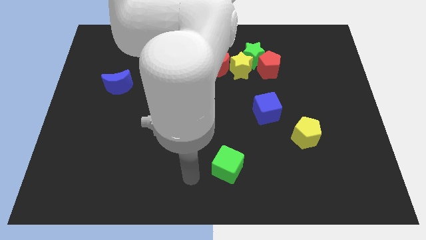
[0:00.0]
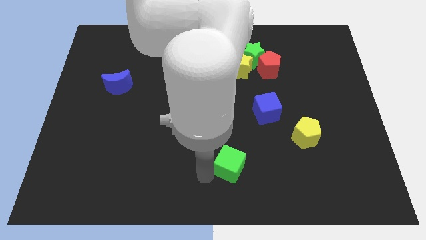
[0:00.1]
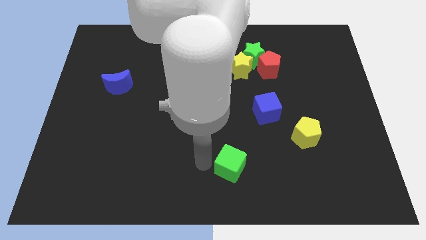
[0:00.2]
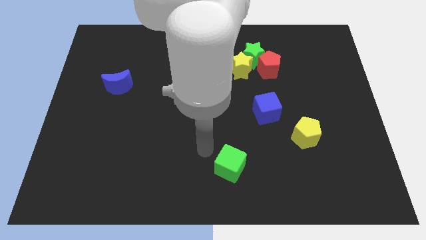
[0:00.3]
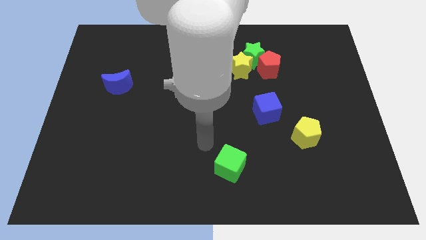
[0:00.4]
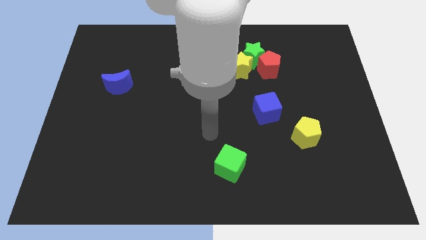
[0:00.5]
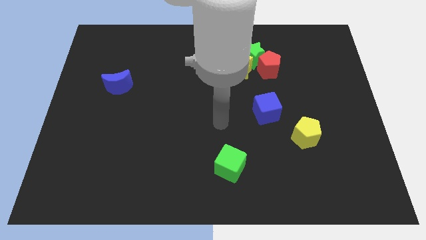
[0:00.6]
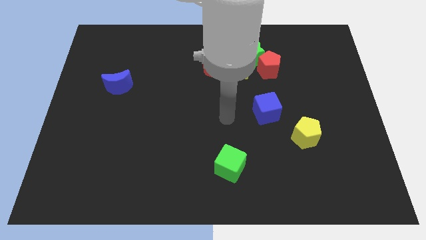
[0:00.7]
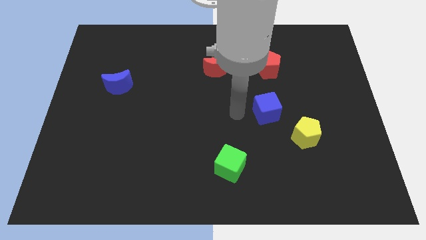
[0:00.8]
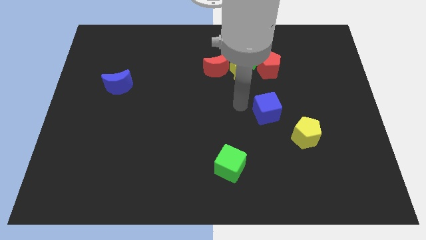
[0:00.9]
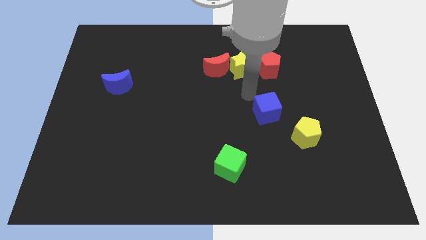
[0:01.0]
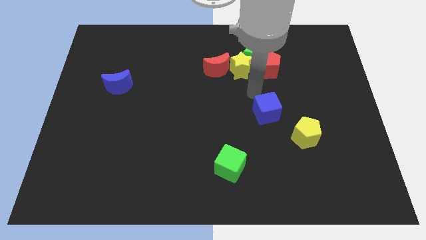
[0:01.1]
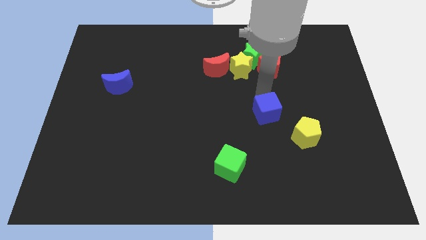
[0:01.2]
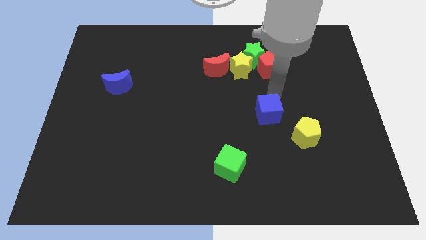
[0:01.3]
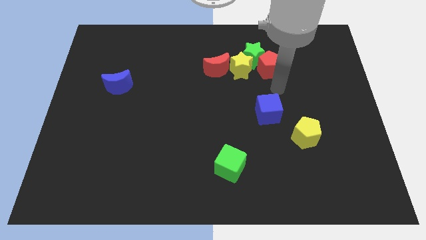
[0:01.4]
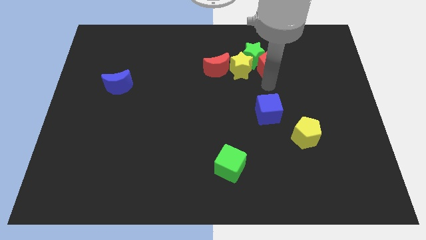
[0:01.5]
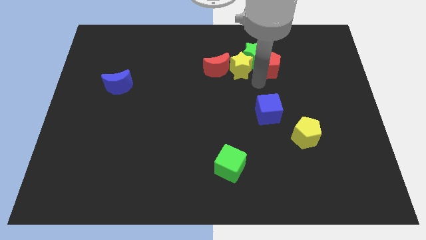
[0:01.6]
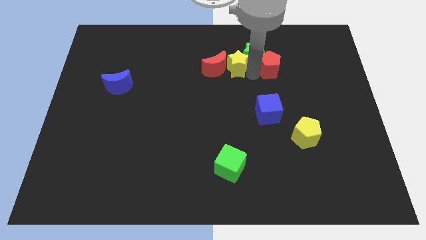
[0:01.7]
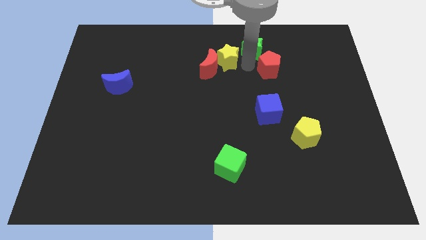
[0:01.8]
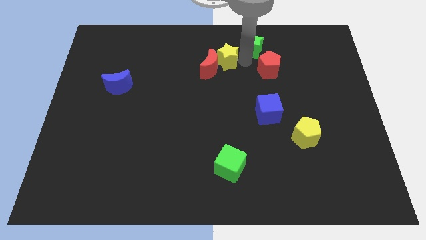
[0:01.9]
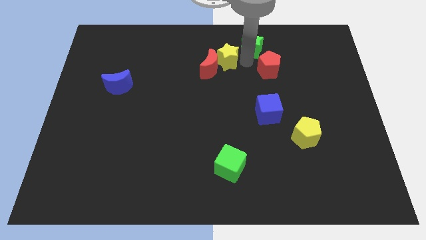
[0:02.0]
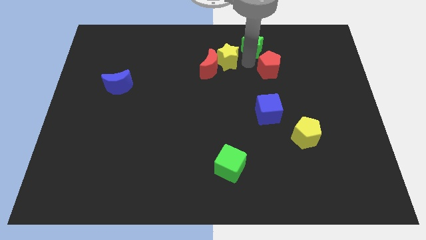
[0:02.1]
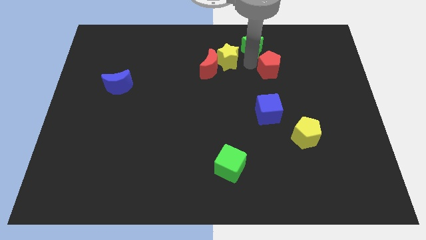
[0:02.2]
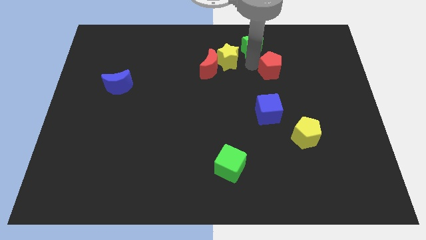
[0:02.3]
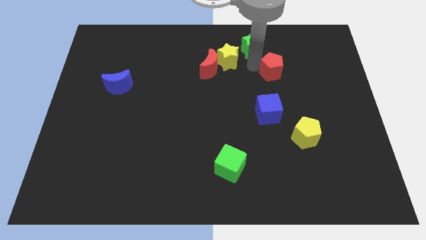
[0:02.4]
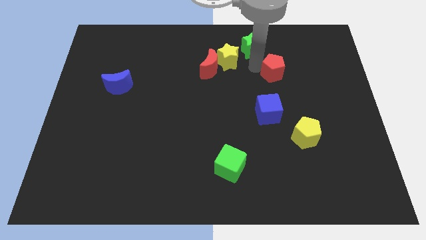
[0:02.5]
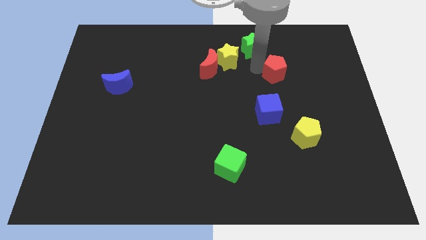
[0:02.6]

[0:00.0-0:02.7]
separate the red pentagon from the green star and yellow star

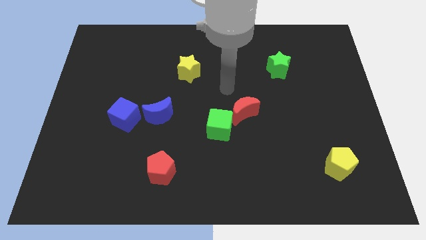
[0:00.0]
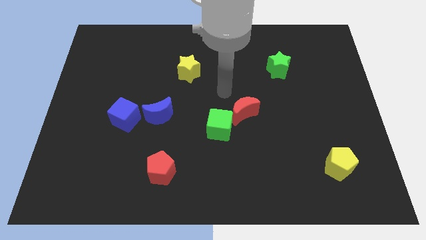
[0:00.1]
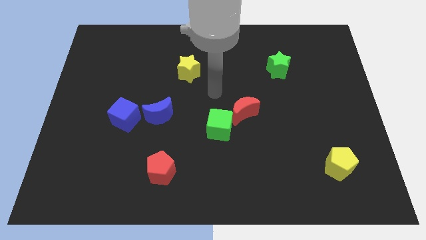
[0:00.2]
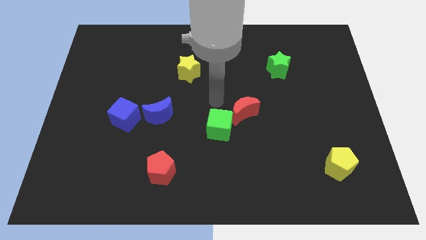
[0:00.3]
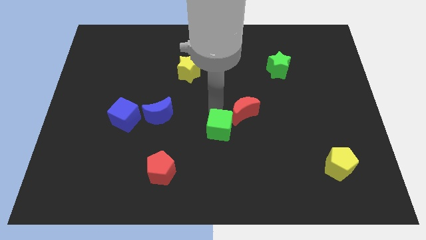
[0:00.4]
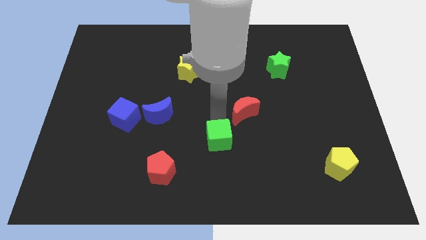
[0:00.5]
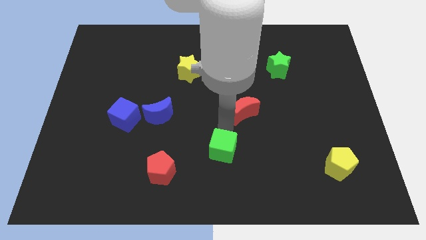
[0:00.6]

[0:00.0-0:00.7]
pull the red moon apart from the green cube

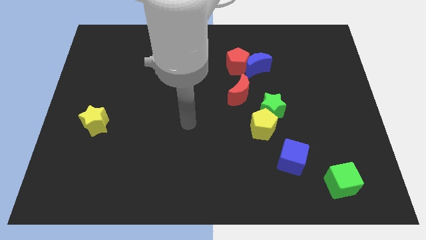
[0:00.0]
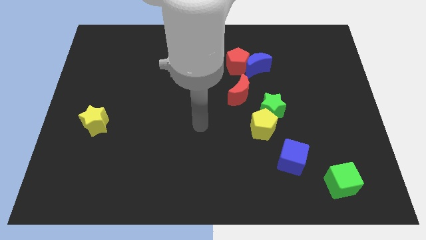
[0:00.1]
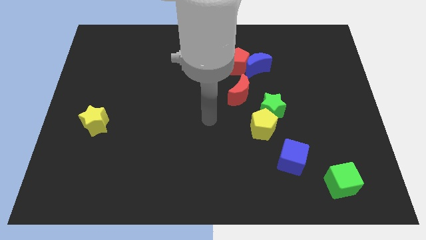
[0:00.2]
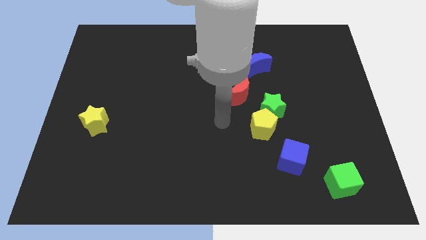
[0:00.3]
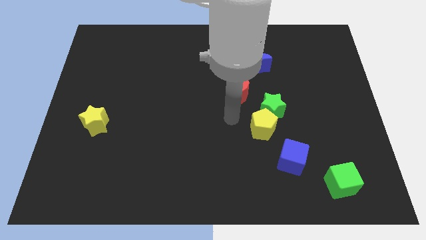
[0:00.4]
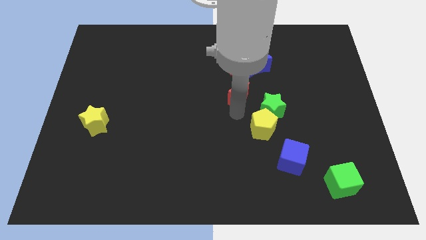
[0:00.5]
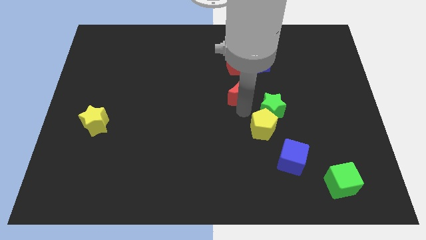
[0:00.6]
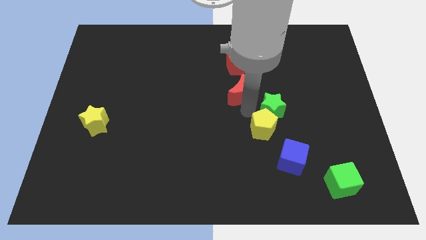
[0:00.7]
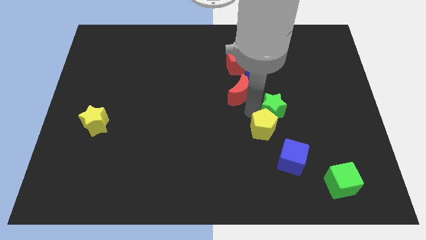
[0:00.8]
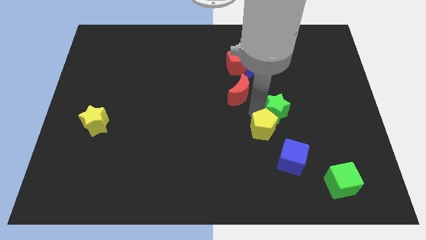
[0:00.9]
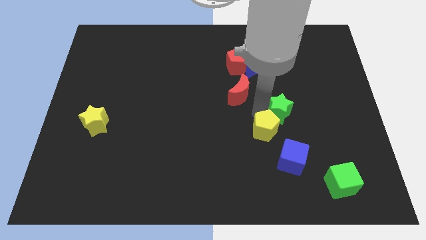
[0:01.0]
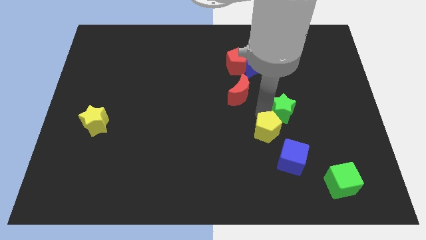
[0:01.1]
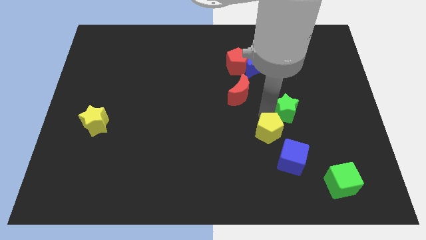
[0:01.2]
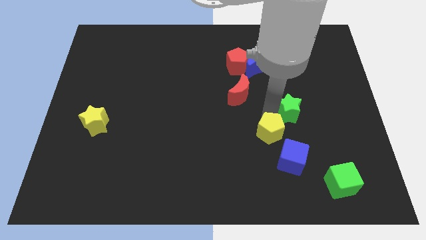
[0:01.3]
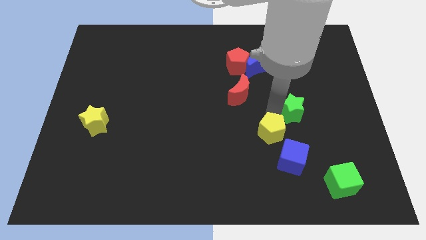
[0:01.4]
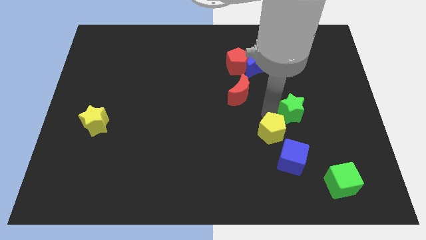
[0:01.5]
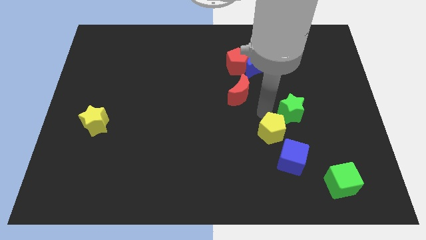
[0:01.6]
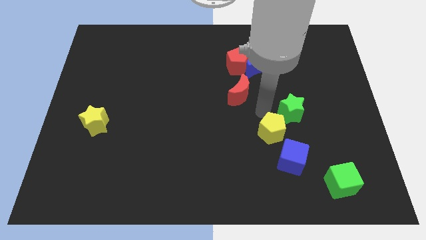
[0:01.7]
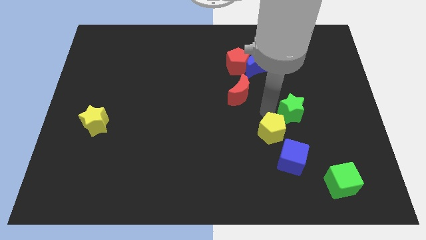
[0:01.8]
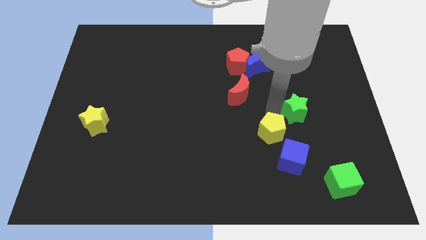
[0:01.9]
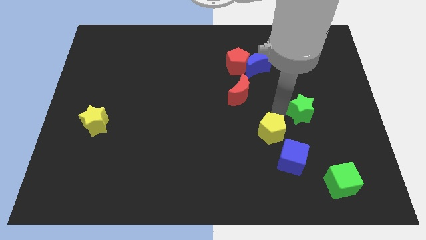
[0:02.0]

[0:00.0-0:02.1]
pull the green star apart from the yellow pentagon and red moon

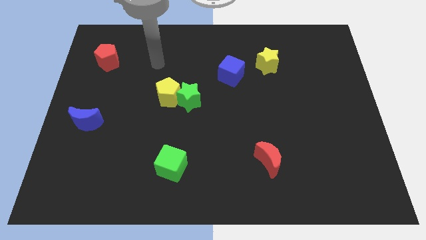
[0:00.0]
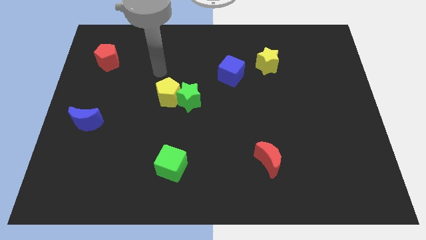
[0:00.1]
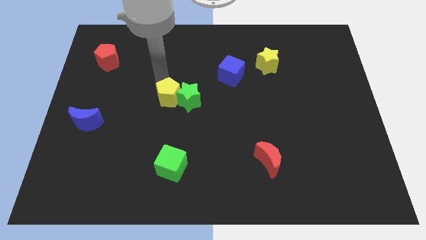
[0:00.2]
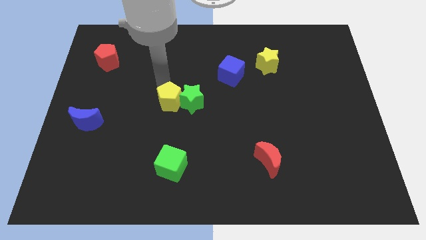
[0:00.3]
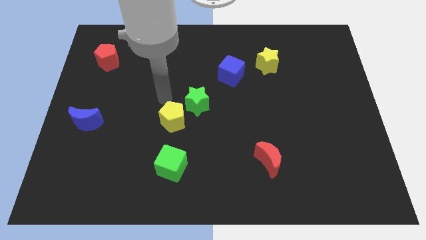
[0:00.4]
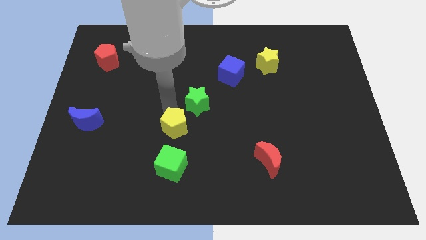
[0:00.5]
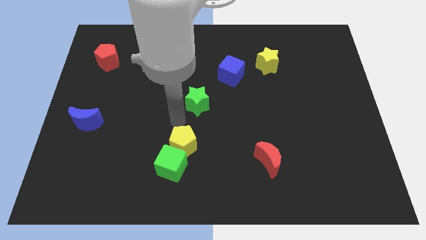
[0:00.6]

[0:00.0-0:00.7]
move the green star away from the yellow pentagon

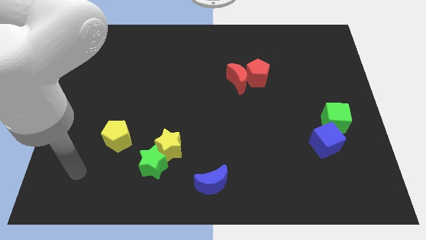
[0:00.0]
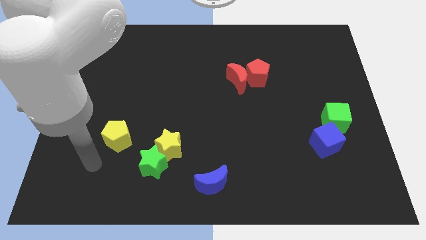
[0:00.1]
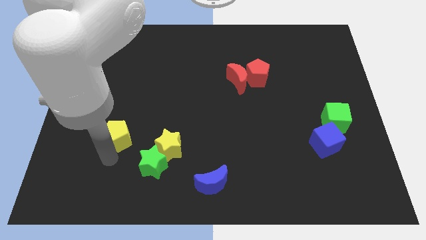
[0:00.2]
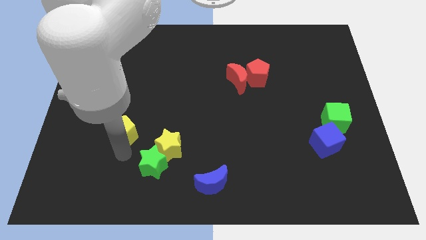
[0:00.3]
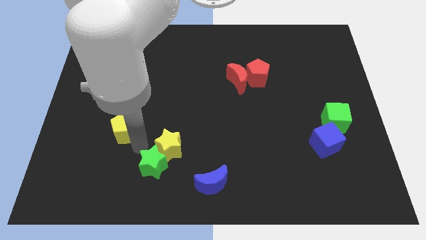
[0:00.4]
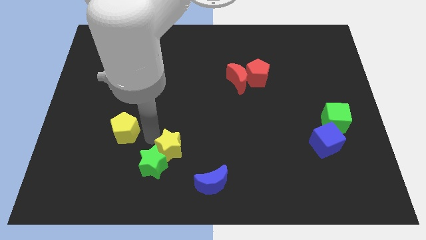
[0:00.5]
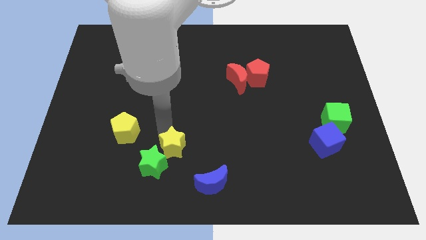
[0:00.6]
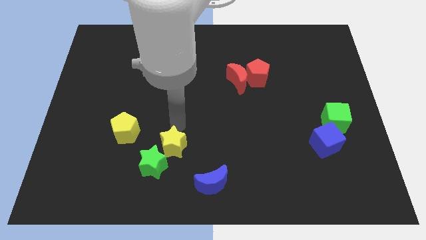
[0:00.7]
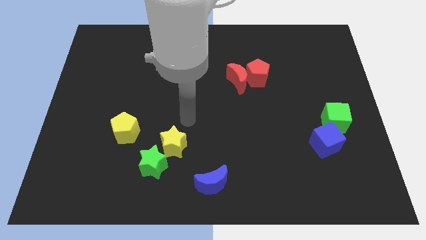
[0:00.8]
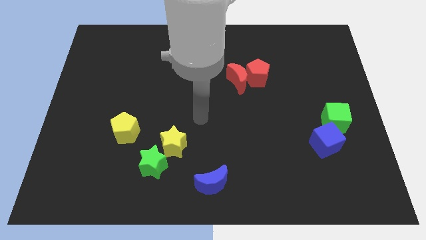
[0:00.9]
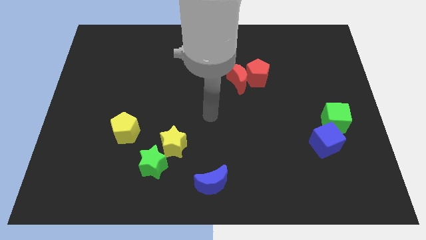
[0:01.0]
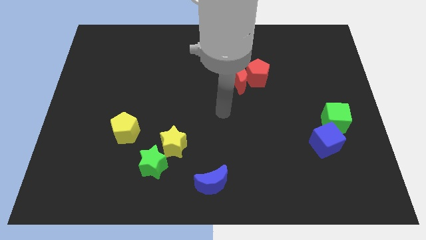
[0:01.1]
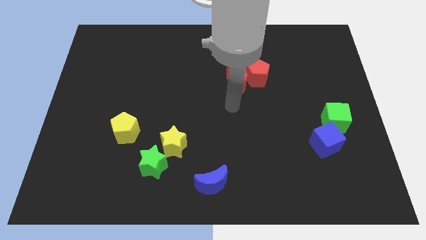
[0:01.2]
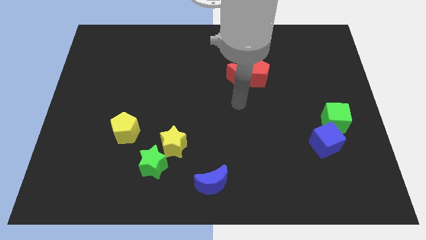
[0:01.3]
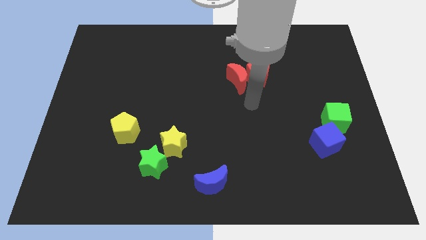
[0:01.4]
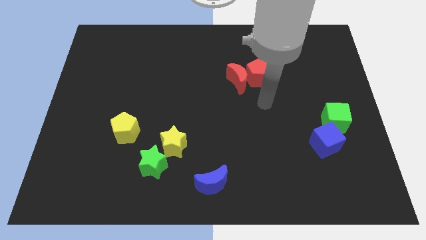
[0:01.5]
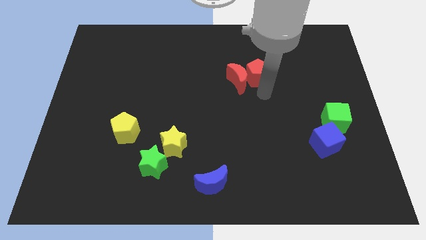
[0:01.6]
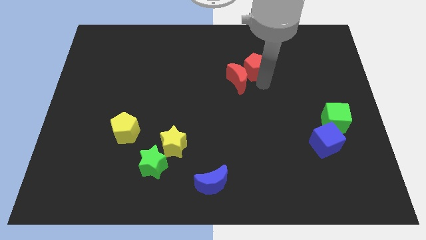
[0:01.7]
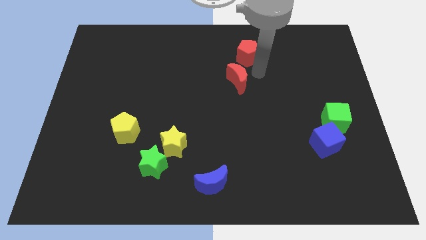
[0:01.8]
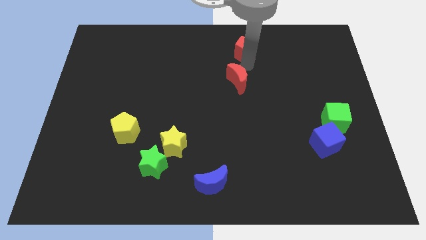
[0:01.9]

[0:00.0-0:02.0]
separate the red moon from the red pentagon

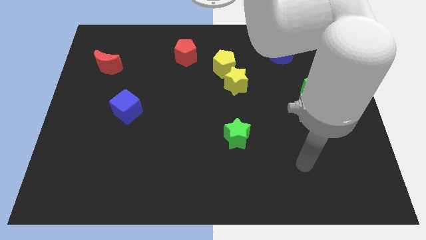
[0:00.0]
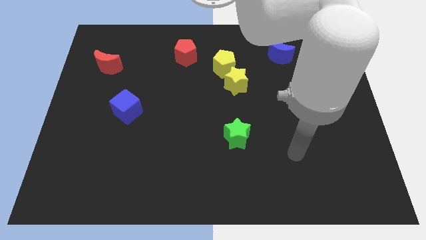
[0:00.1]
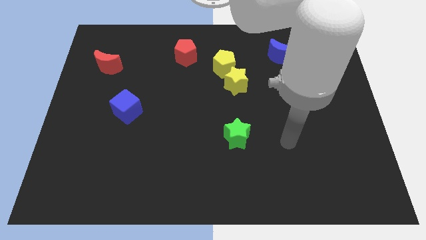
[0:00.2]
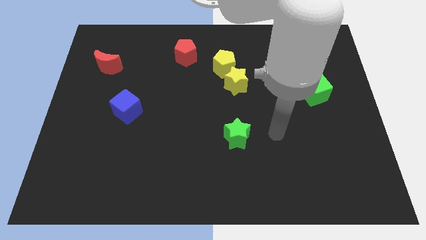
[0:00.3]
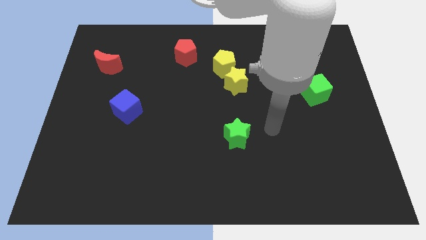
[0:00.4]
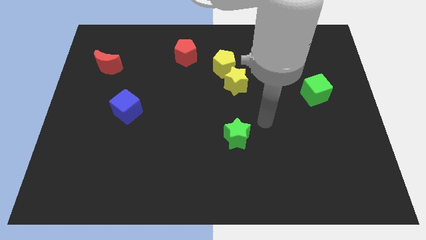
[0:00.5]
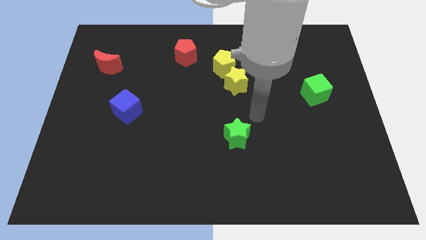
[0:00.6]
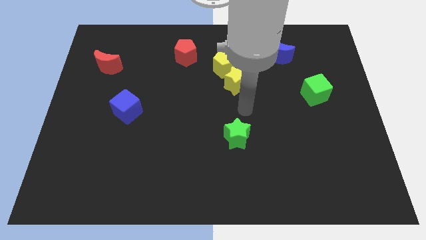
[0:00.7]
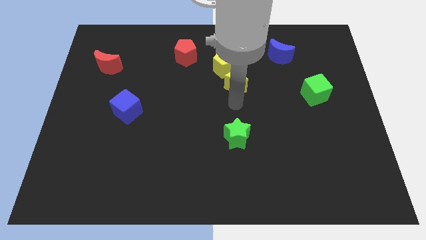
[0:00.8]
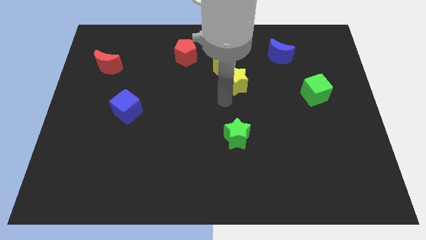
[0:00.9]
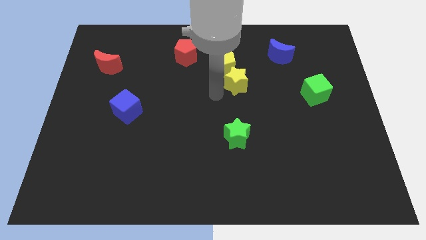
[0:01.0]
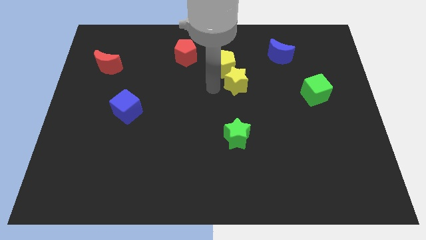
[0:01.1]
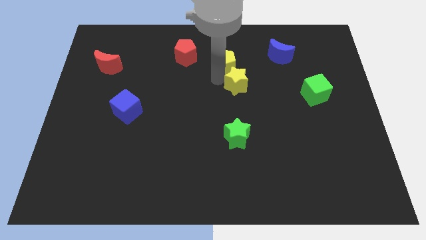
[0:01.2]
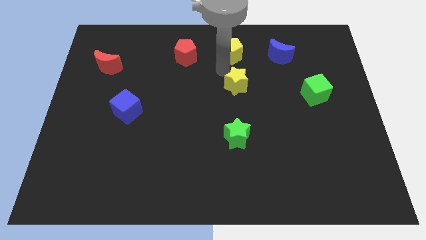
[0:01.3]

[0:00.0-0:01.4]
separate the yellow star from the yellow pentagon
